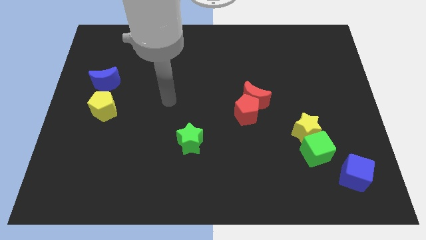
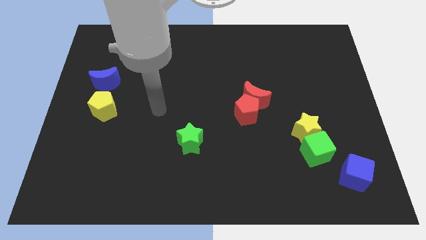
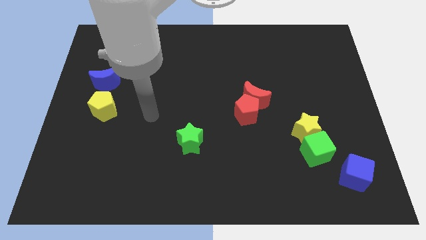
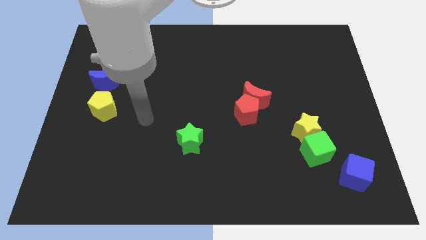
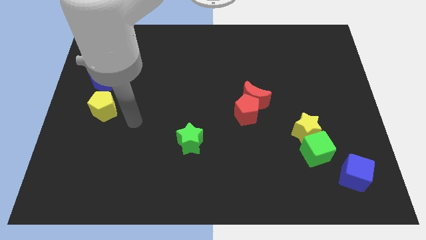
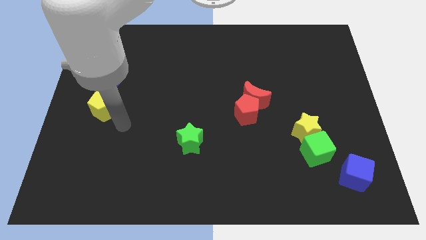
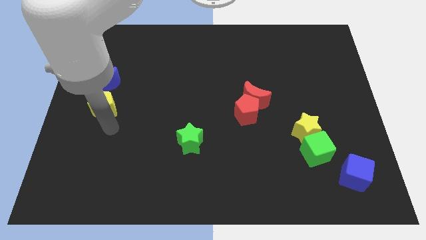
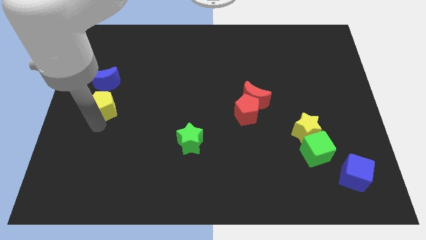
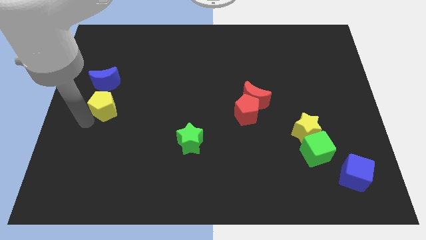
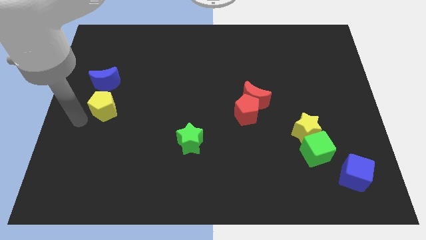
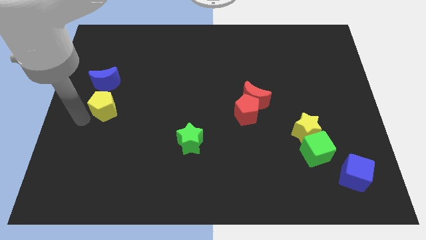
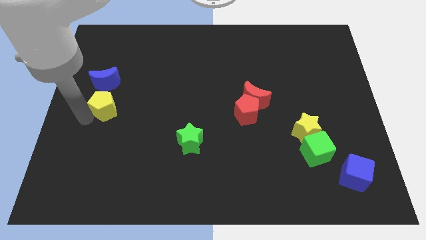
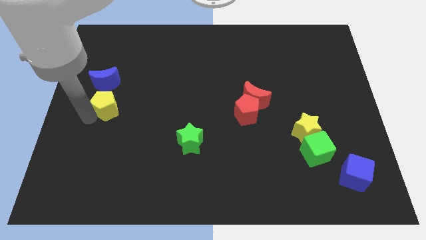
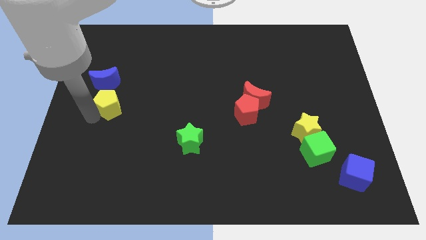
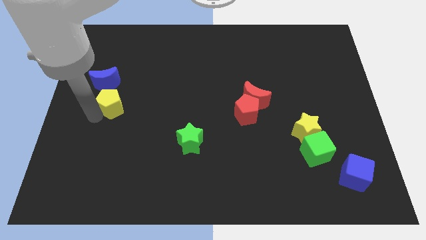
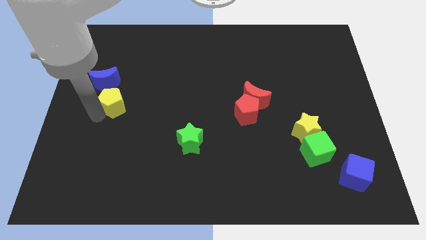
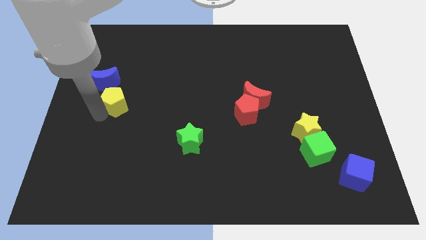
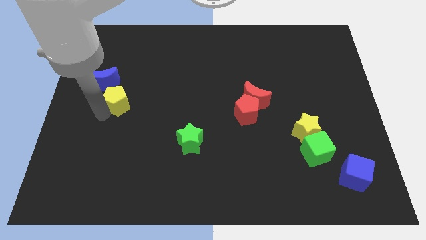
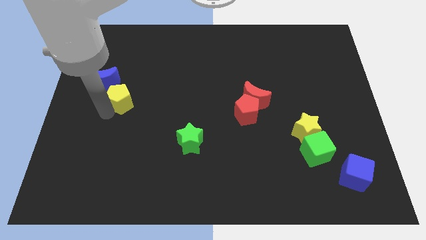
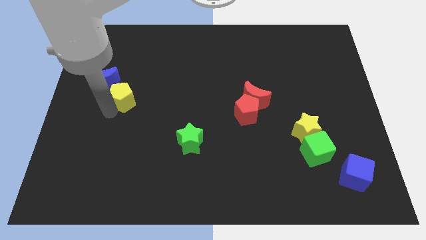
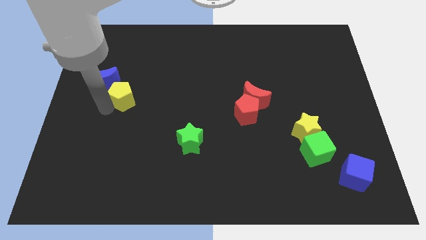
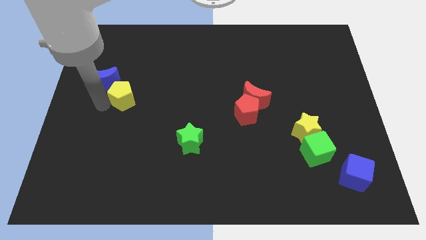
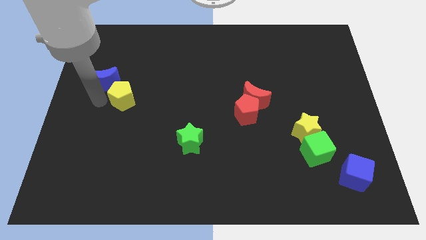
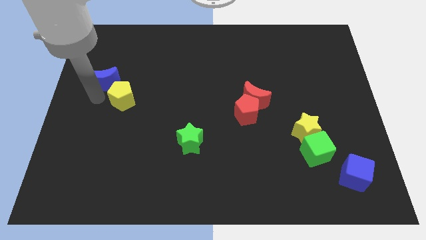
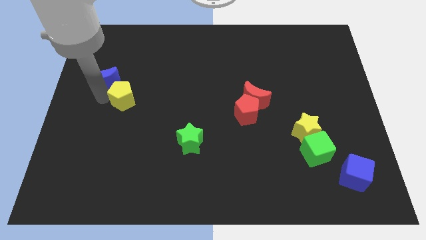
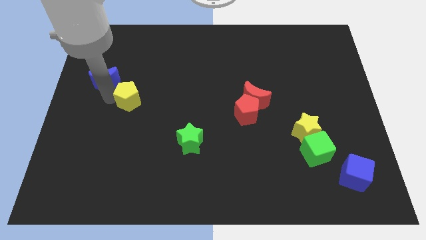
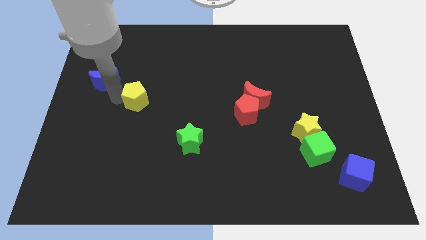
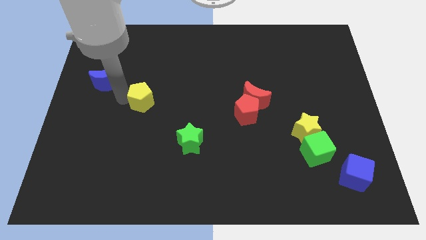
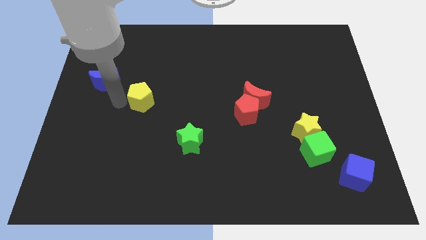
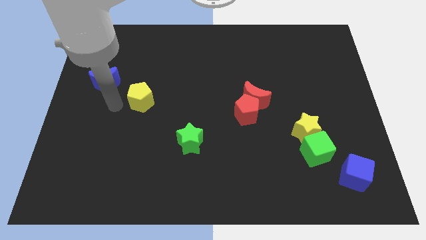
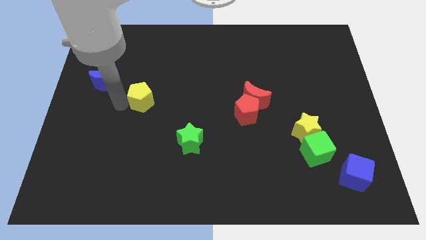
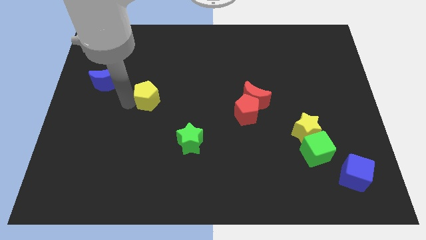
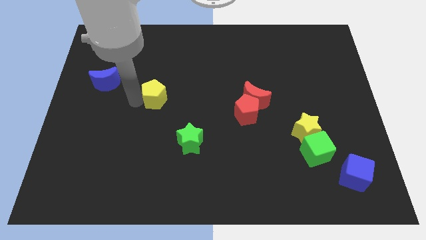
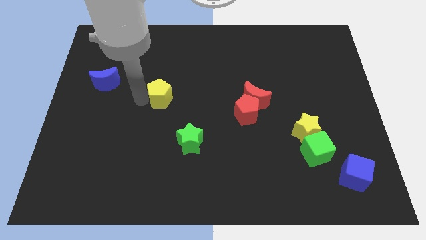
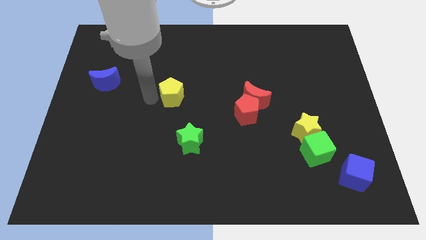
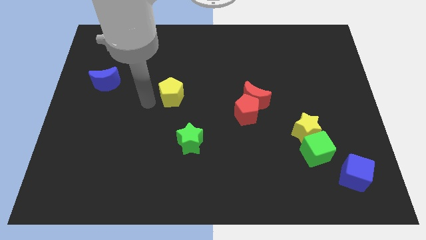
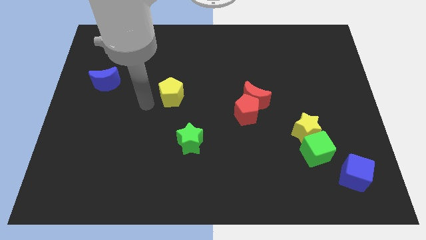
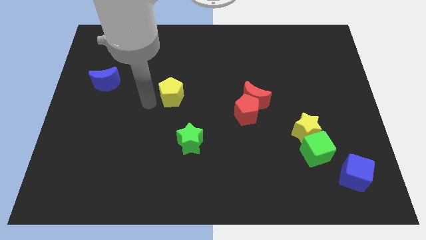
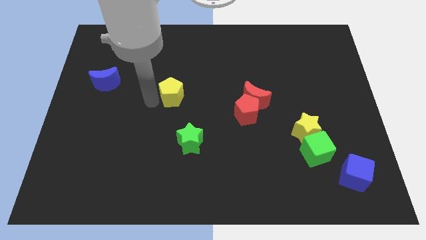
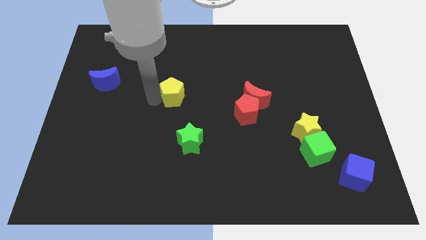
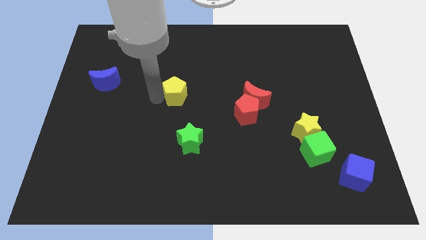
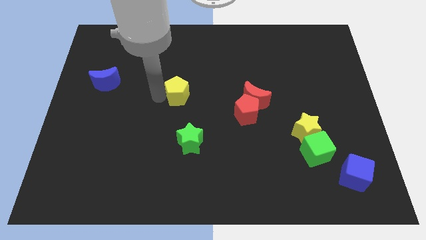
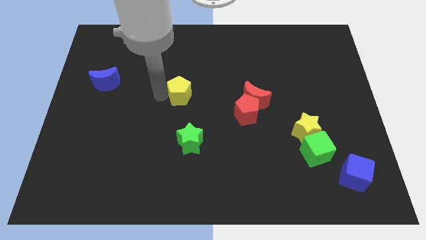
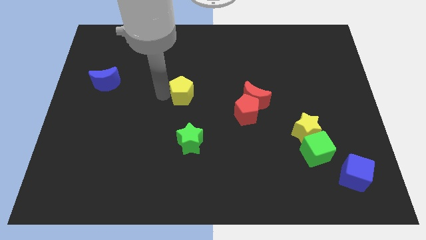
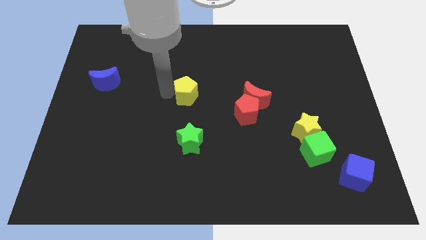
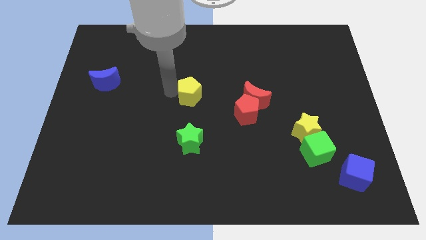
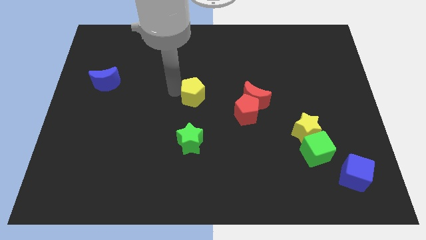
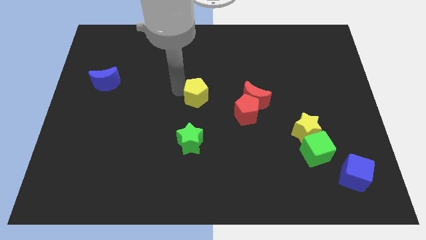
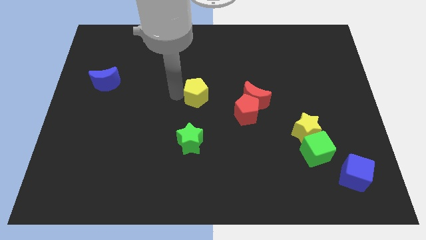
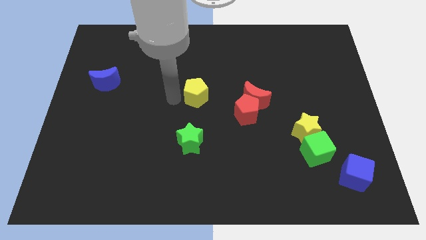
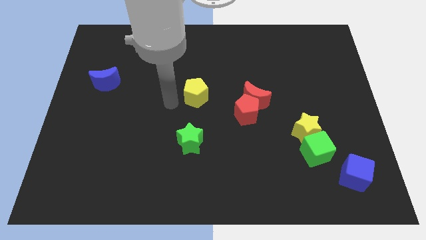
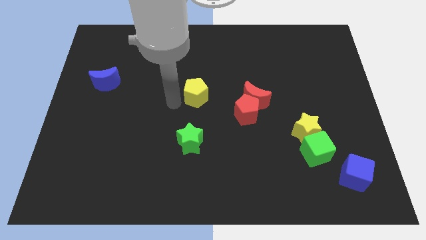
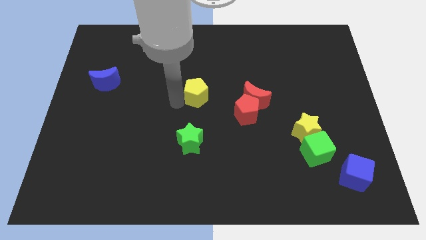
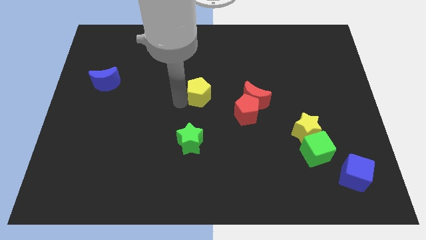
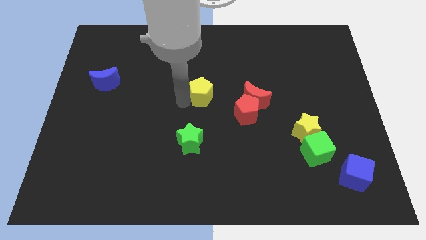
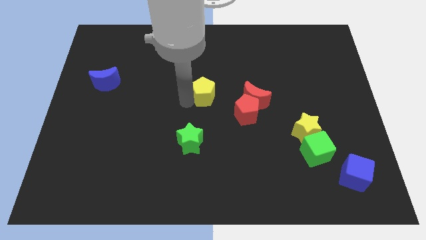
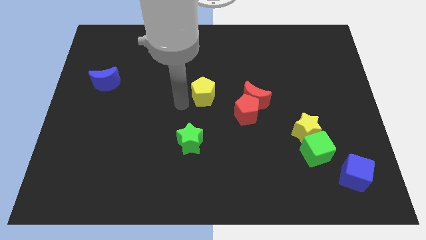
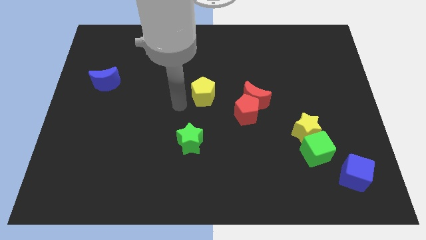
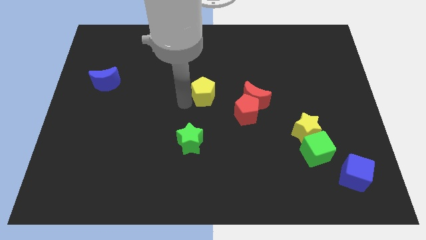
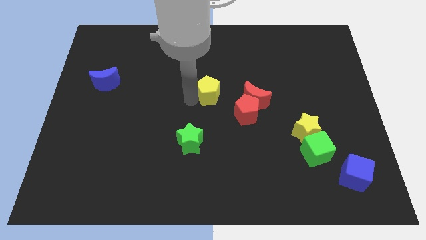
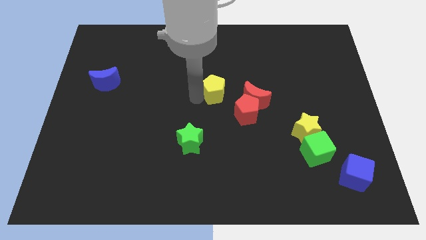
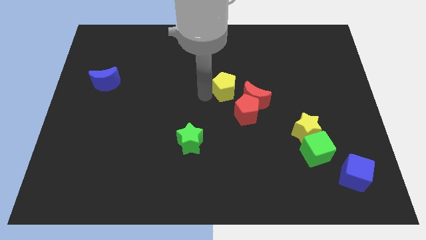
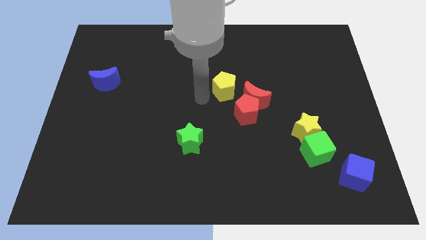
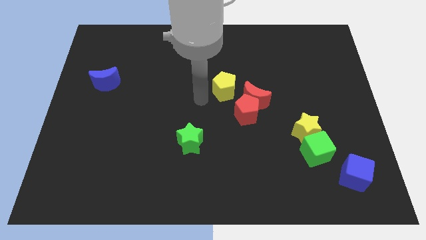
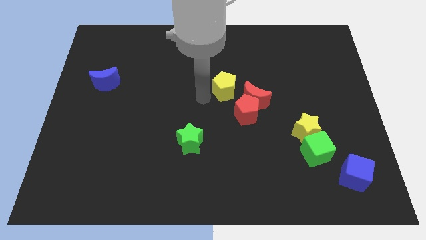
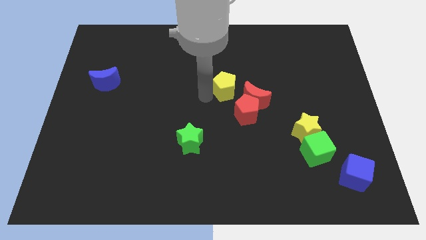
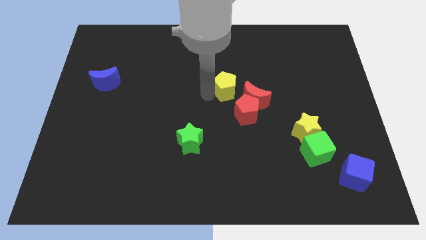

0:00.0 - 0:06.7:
slide the yellow pentagon to the top side of the red pentagon

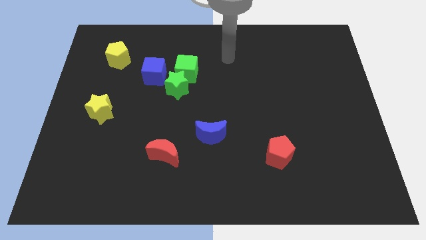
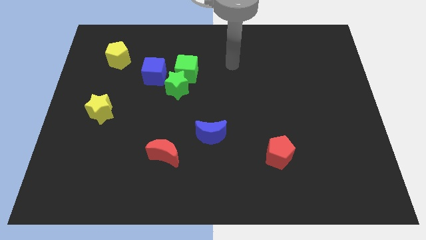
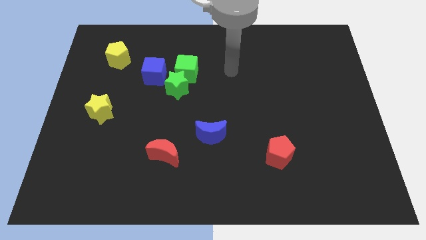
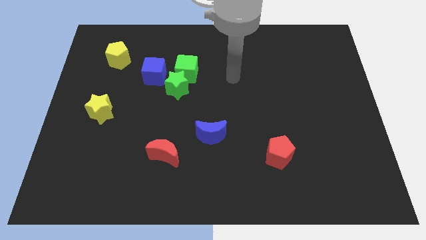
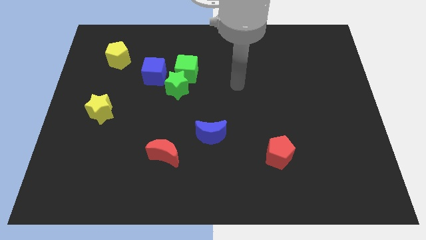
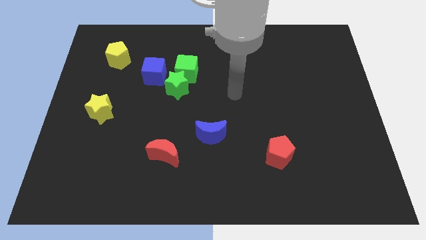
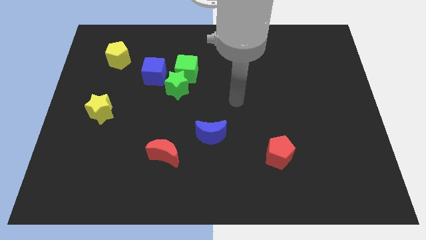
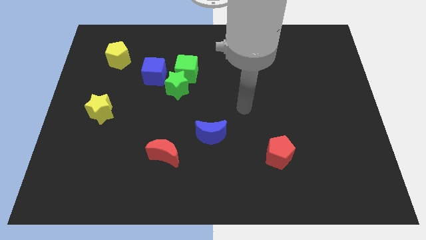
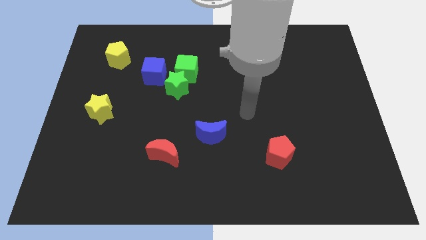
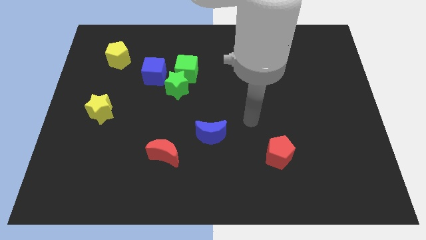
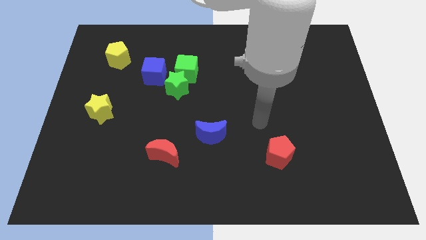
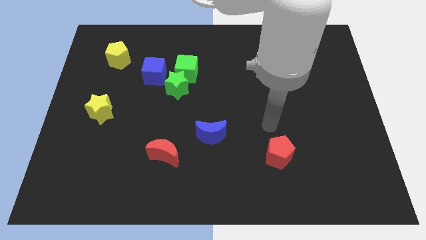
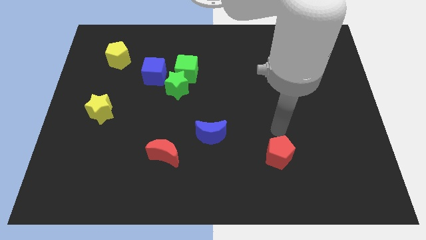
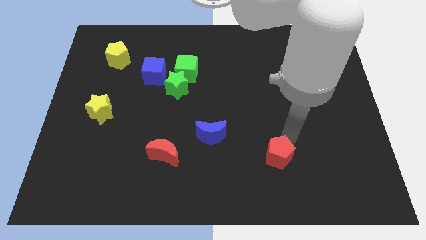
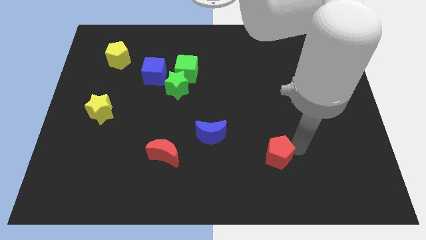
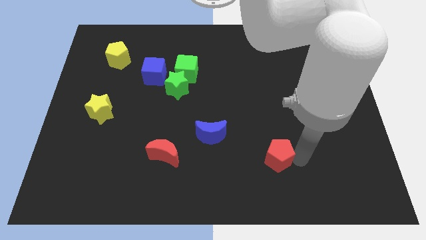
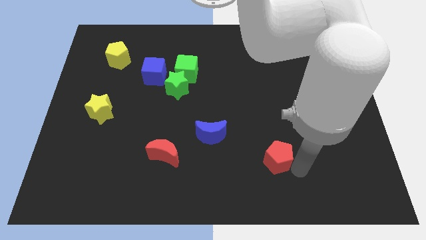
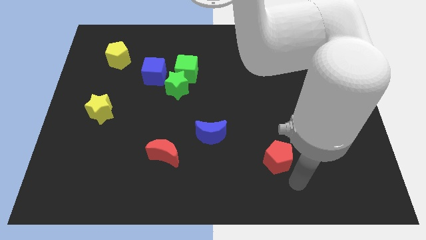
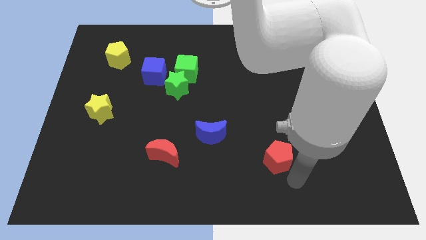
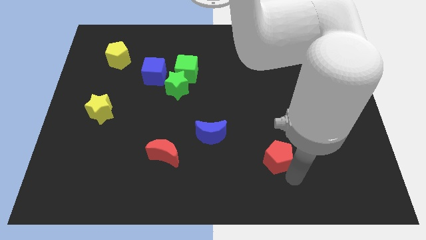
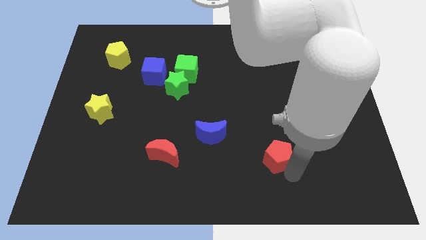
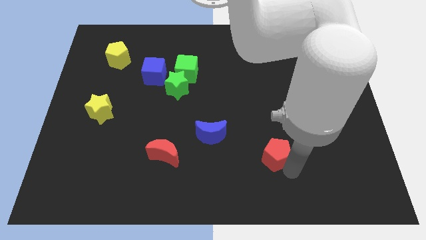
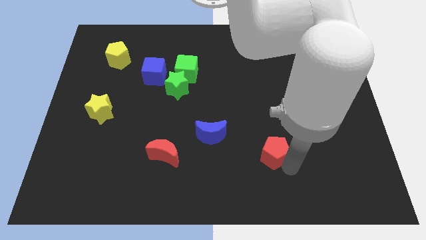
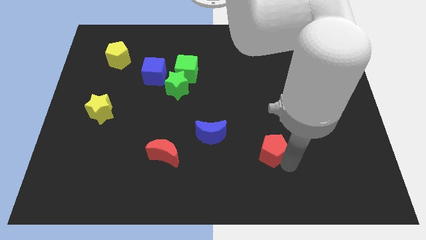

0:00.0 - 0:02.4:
put the red pentagon right of the blue moon
